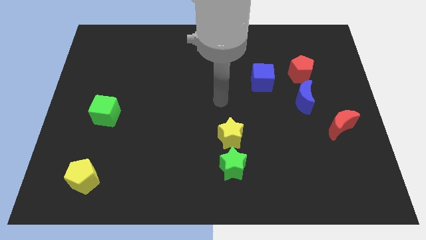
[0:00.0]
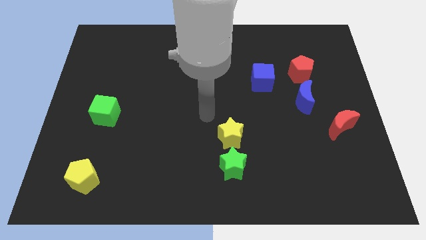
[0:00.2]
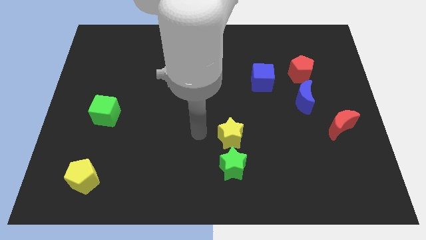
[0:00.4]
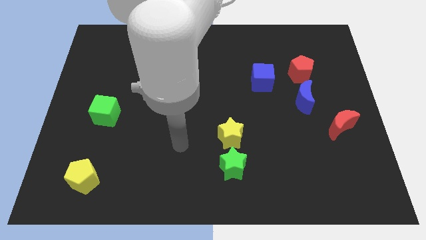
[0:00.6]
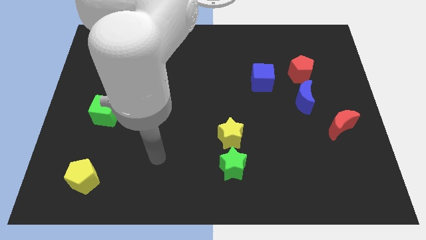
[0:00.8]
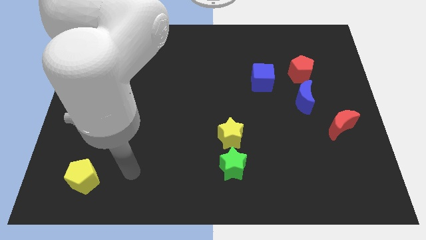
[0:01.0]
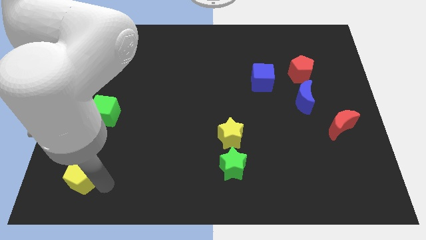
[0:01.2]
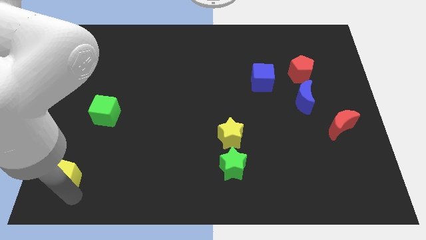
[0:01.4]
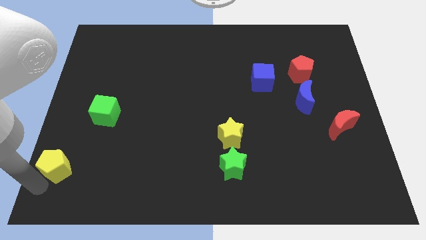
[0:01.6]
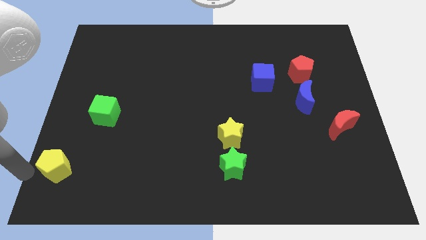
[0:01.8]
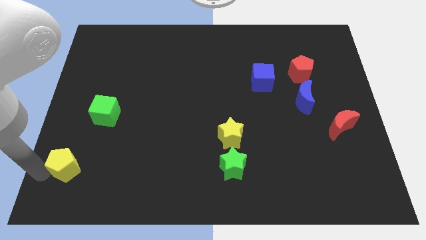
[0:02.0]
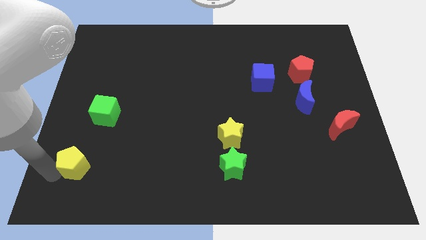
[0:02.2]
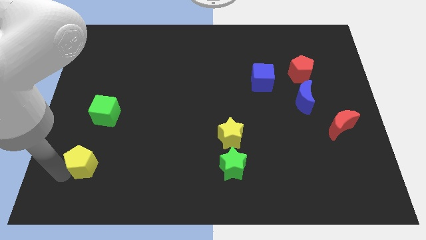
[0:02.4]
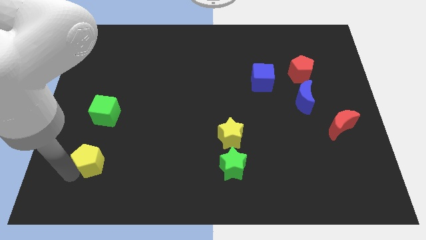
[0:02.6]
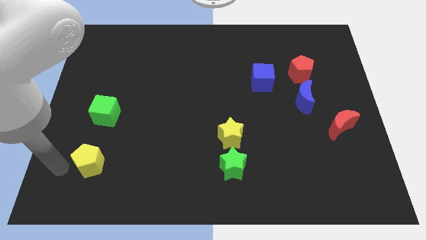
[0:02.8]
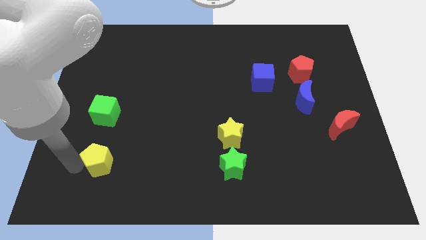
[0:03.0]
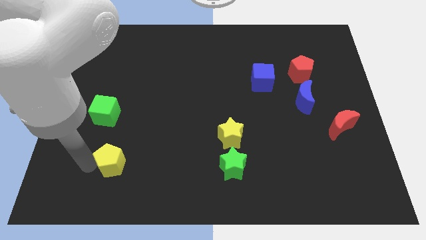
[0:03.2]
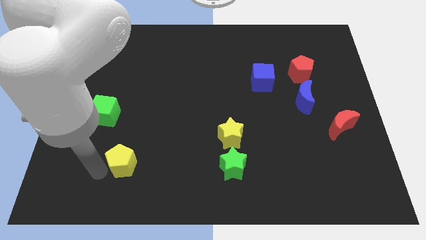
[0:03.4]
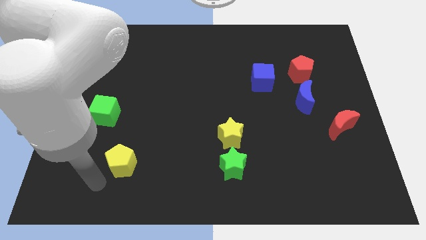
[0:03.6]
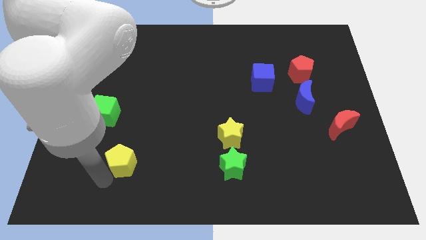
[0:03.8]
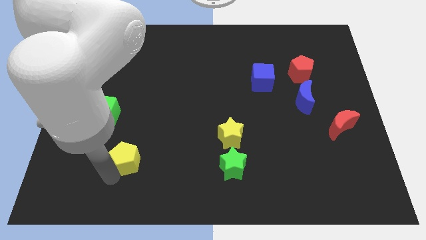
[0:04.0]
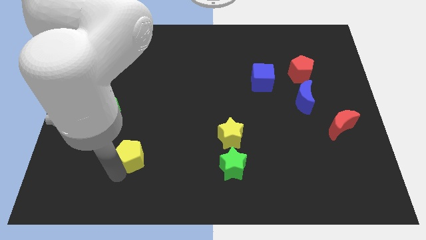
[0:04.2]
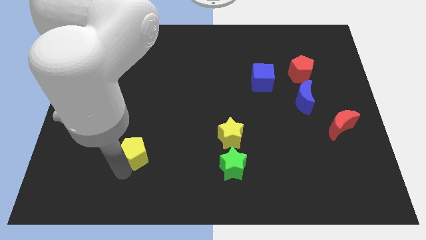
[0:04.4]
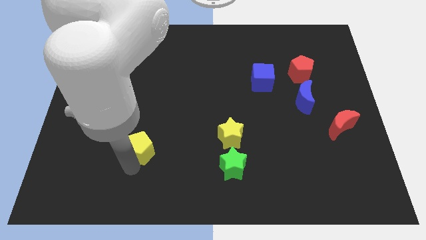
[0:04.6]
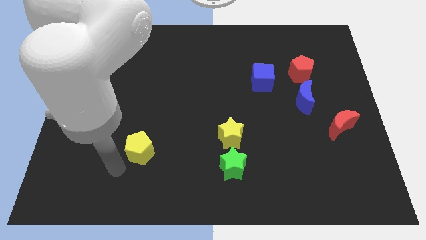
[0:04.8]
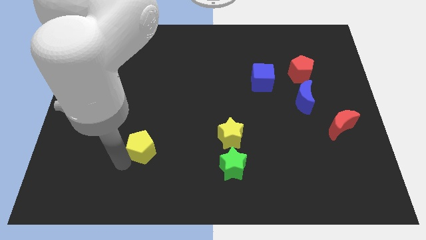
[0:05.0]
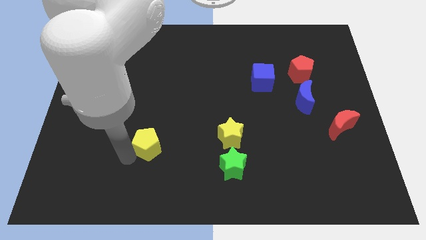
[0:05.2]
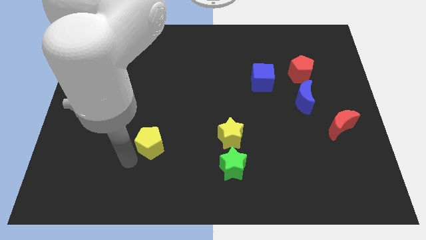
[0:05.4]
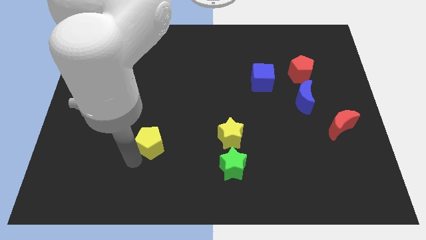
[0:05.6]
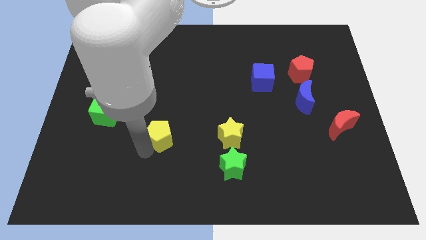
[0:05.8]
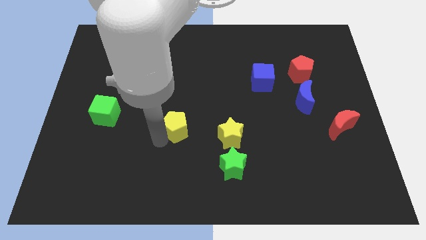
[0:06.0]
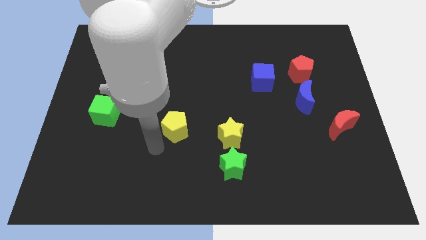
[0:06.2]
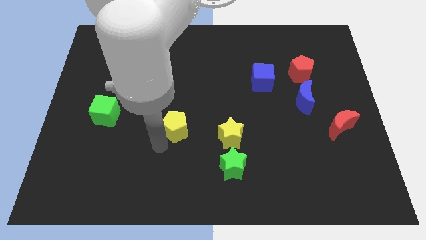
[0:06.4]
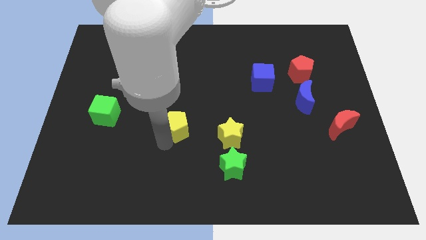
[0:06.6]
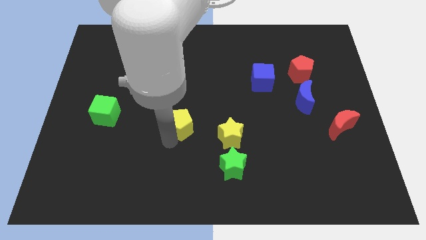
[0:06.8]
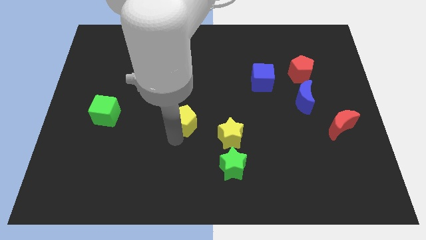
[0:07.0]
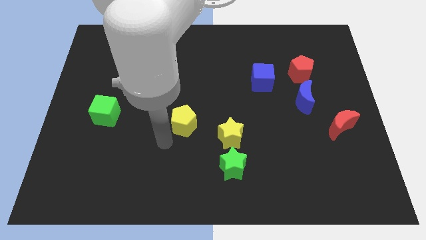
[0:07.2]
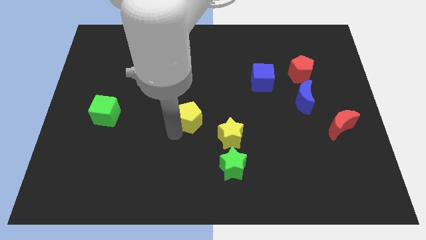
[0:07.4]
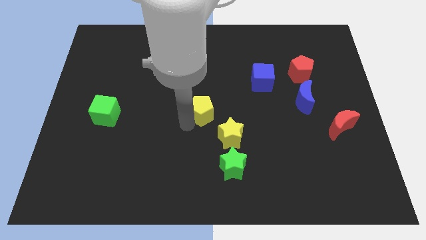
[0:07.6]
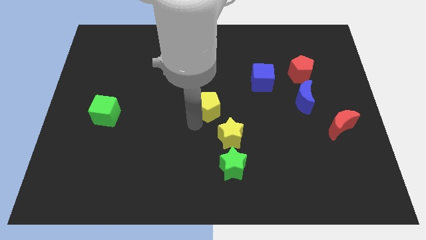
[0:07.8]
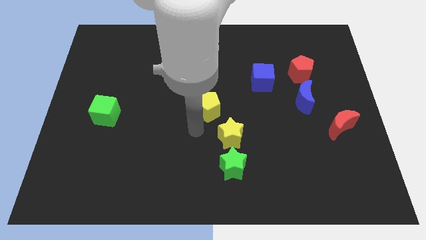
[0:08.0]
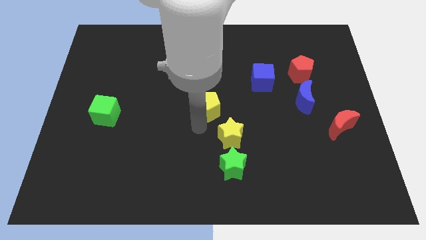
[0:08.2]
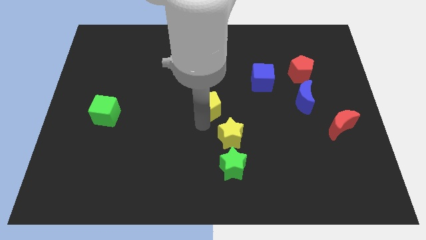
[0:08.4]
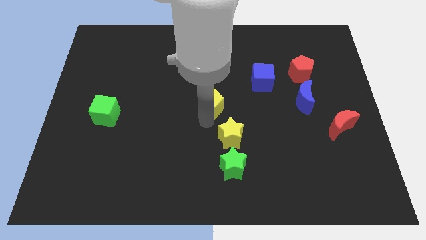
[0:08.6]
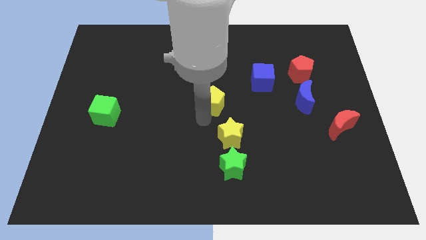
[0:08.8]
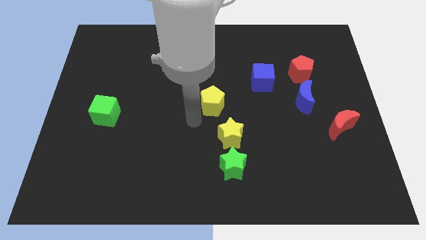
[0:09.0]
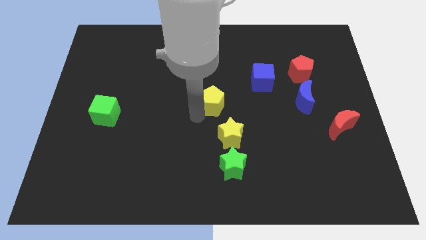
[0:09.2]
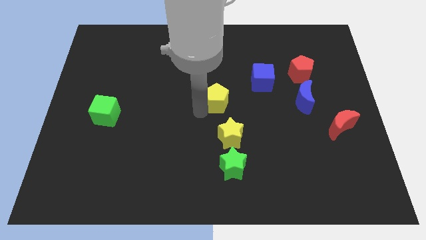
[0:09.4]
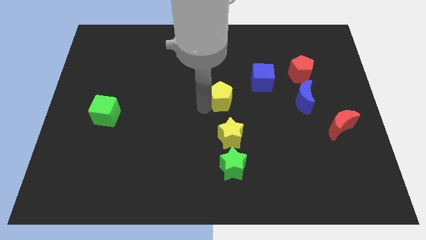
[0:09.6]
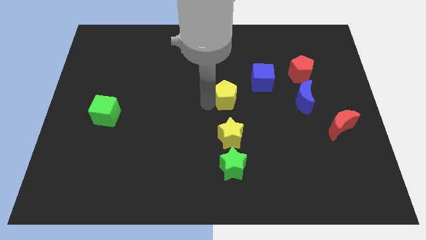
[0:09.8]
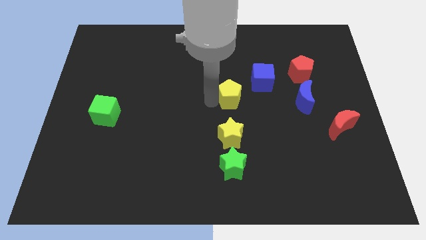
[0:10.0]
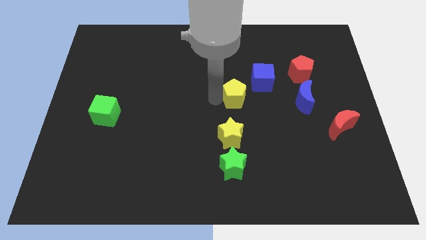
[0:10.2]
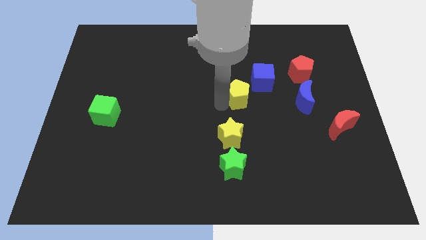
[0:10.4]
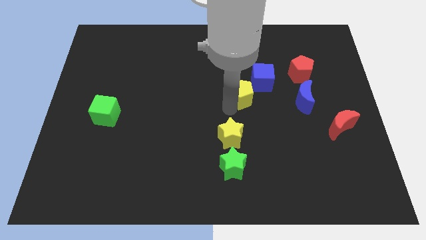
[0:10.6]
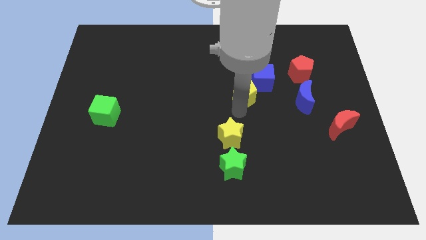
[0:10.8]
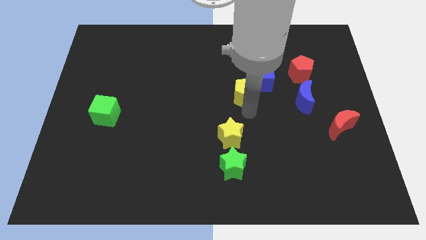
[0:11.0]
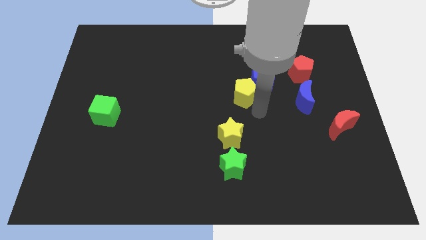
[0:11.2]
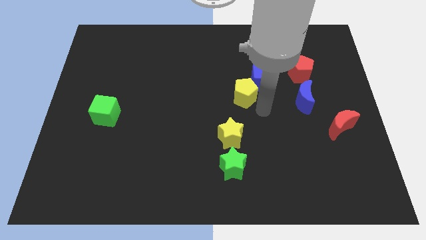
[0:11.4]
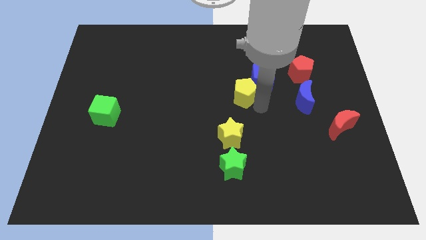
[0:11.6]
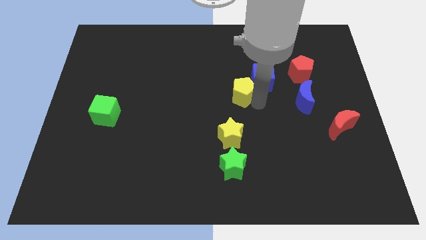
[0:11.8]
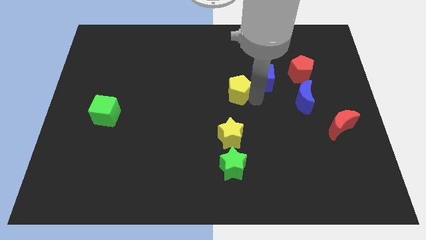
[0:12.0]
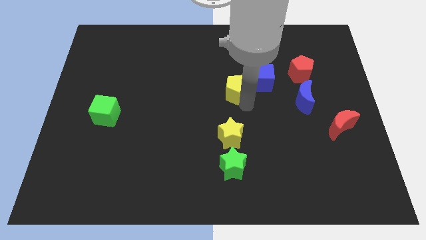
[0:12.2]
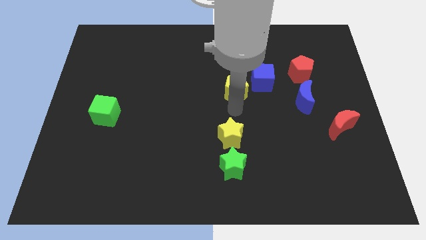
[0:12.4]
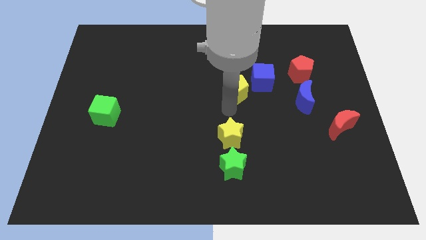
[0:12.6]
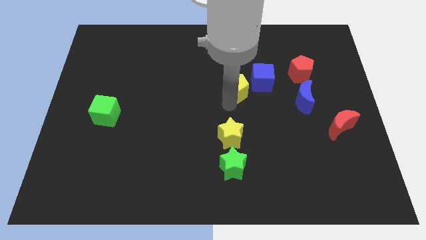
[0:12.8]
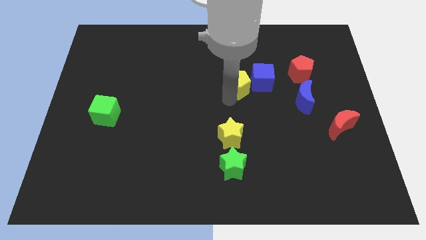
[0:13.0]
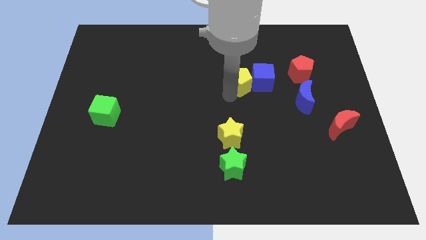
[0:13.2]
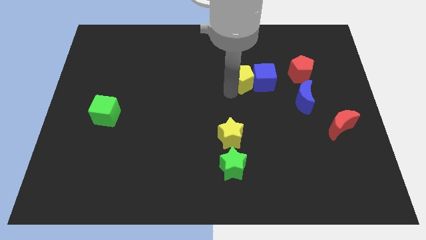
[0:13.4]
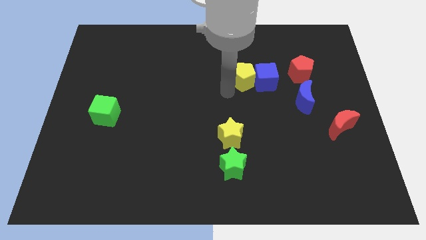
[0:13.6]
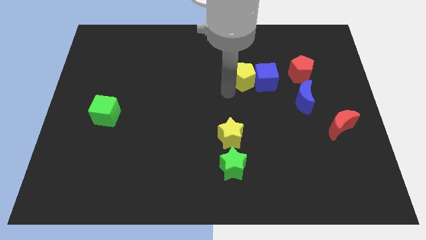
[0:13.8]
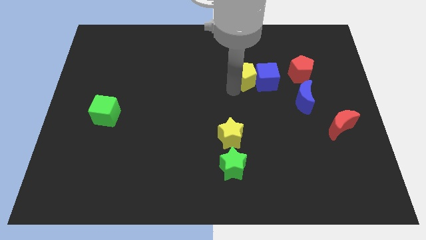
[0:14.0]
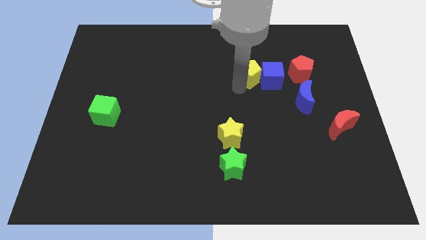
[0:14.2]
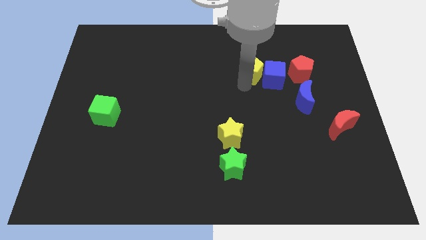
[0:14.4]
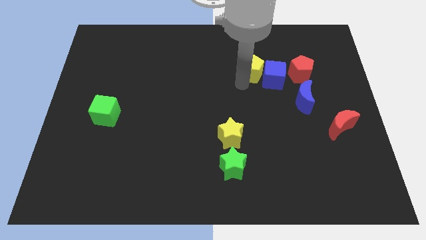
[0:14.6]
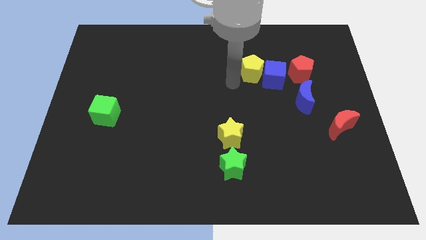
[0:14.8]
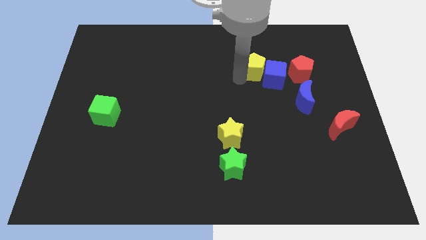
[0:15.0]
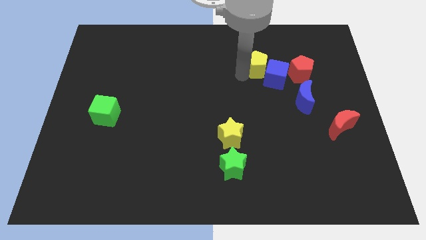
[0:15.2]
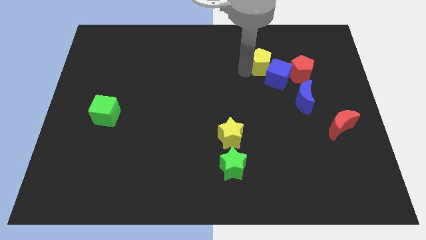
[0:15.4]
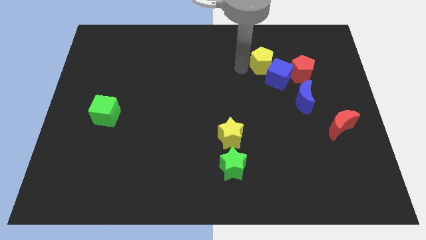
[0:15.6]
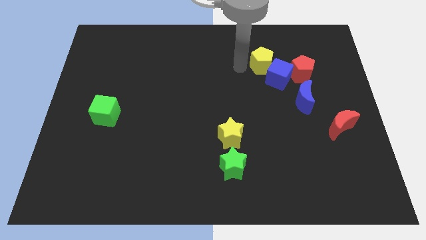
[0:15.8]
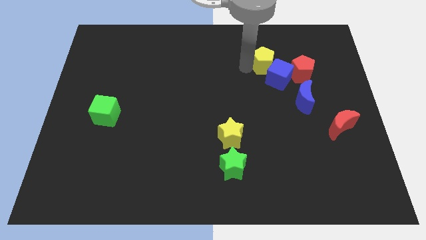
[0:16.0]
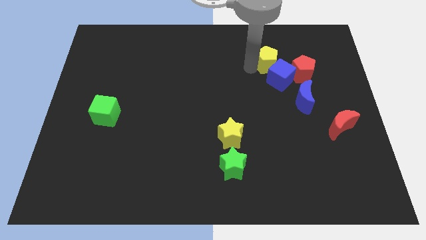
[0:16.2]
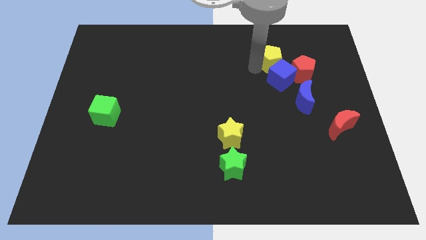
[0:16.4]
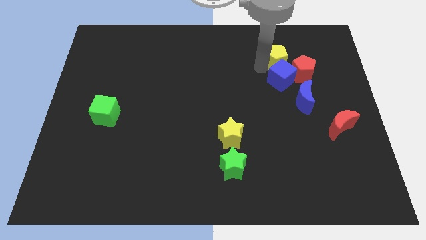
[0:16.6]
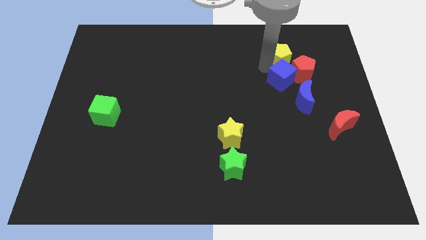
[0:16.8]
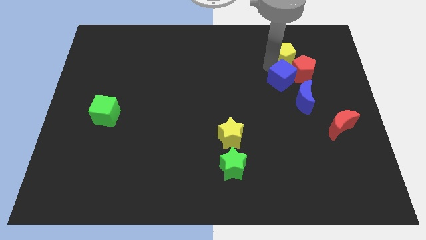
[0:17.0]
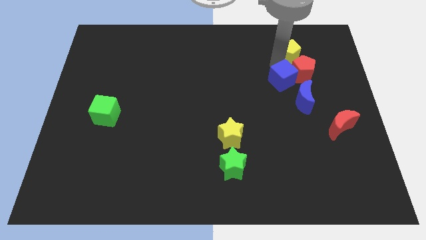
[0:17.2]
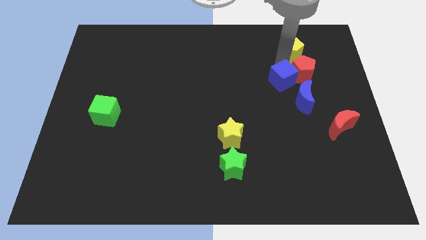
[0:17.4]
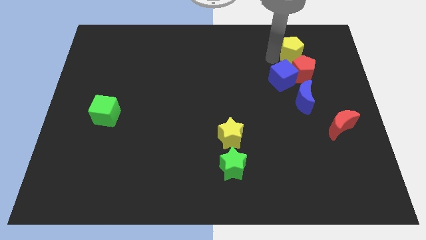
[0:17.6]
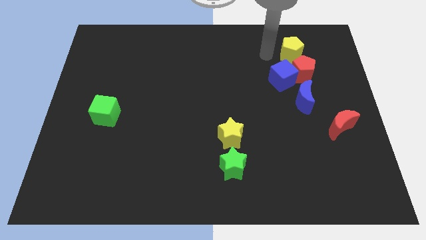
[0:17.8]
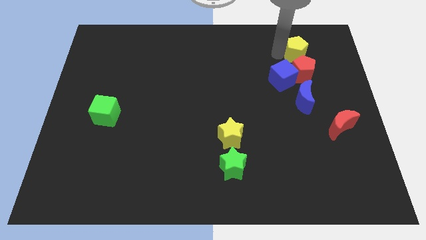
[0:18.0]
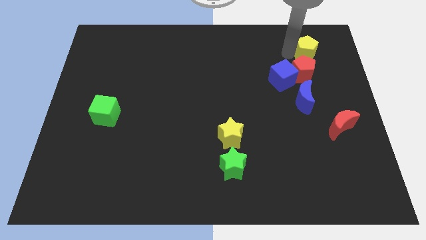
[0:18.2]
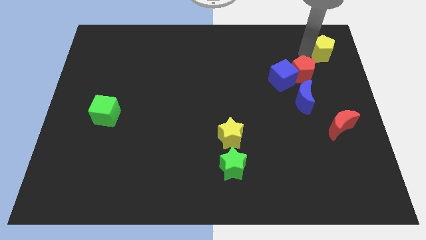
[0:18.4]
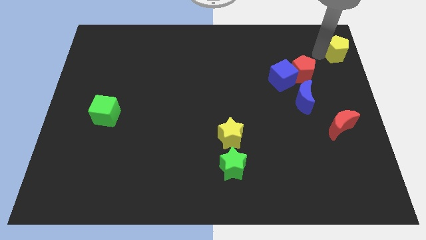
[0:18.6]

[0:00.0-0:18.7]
put the yellow pentagon to the top right of the board
